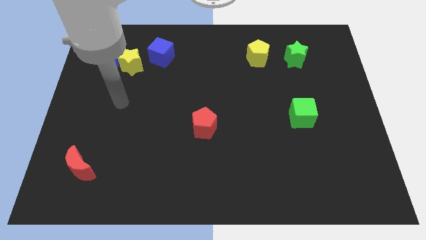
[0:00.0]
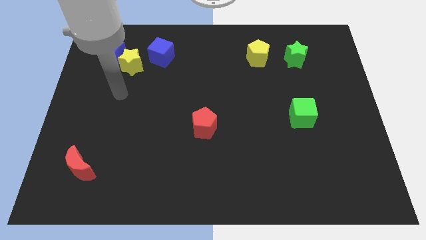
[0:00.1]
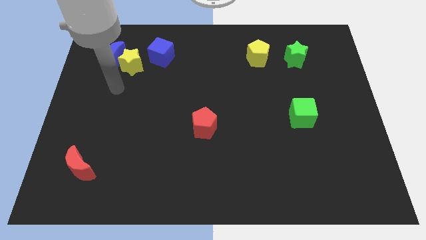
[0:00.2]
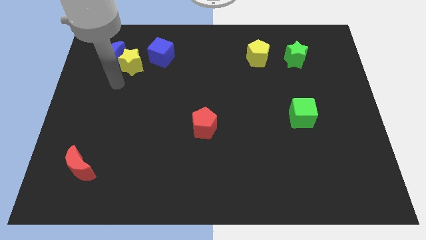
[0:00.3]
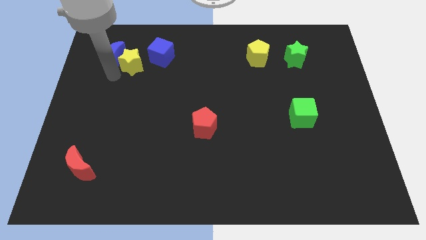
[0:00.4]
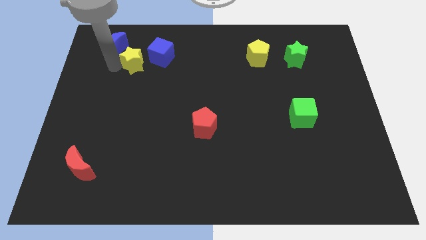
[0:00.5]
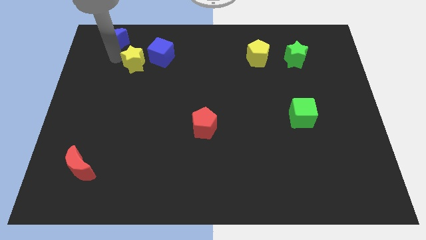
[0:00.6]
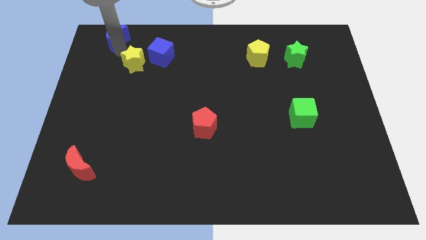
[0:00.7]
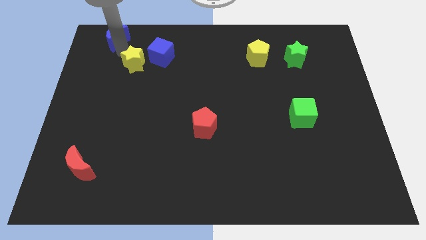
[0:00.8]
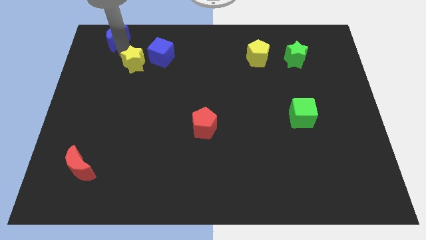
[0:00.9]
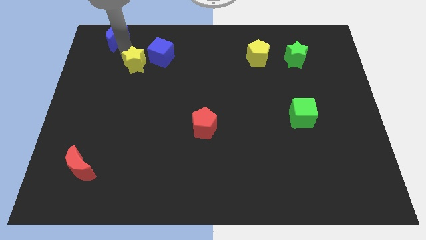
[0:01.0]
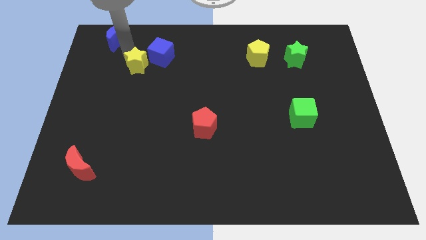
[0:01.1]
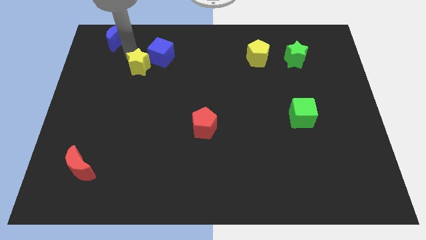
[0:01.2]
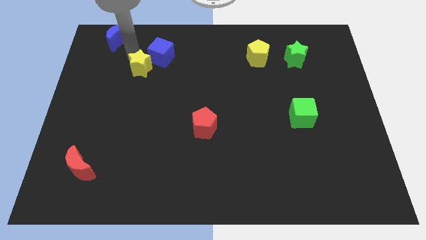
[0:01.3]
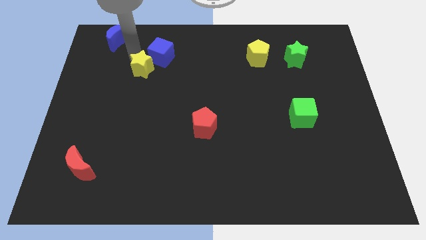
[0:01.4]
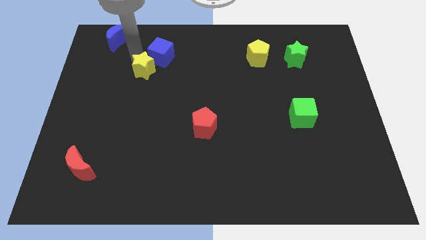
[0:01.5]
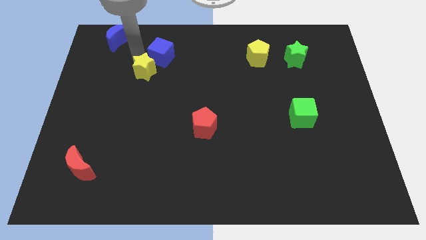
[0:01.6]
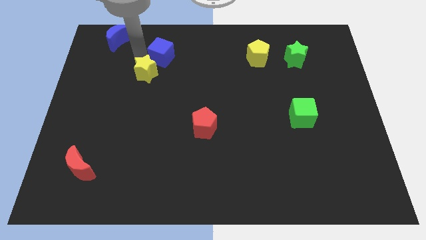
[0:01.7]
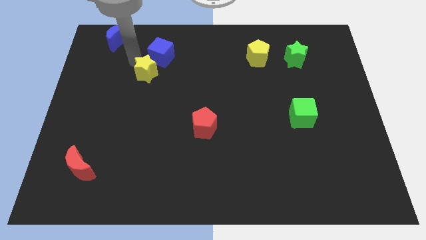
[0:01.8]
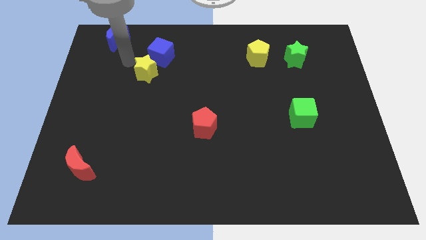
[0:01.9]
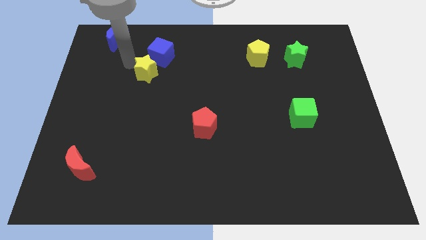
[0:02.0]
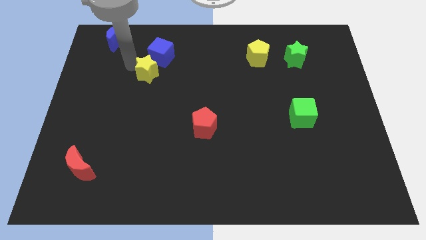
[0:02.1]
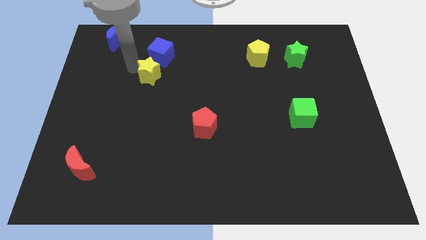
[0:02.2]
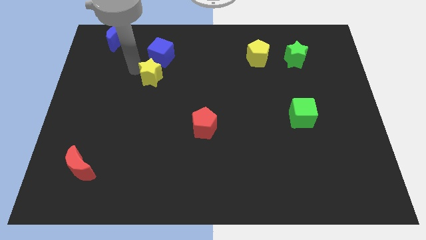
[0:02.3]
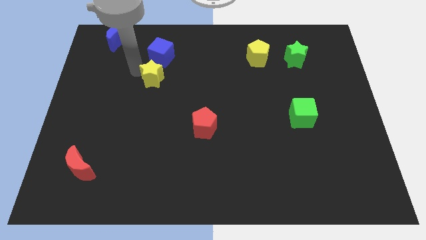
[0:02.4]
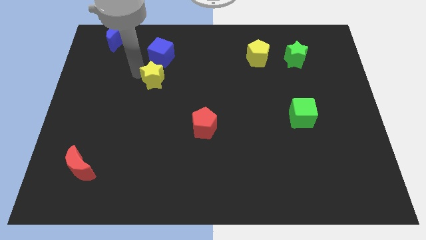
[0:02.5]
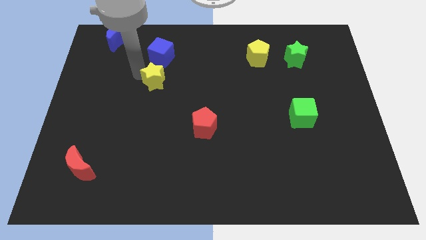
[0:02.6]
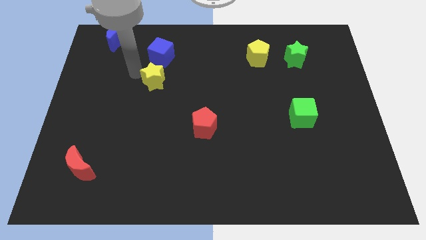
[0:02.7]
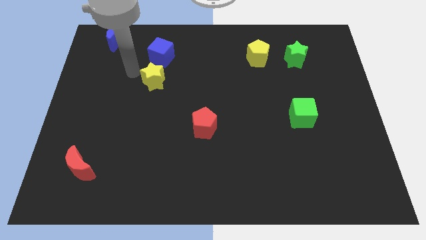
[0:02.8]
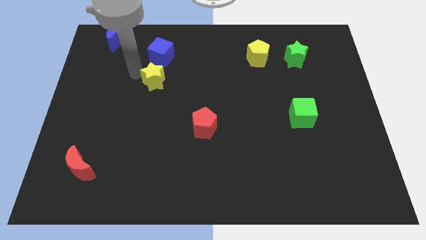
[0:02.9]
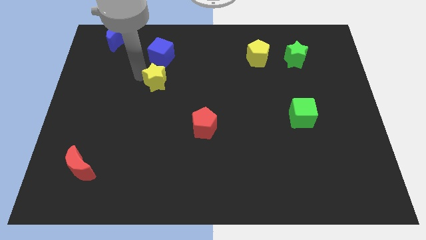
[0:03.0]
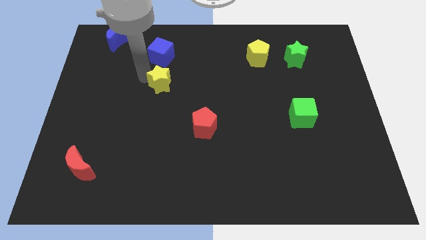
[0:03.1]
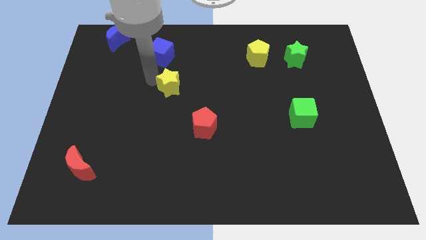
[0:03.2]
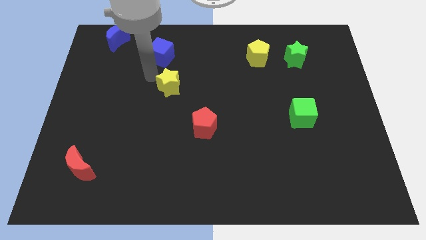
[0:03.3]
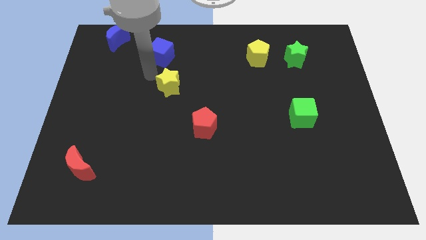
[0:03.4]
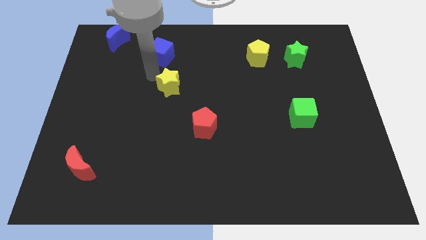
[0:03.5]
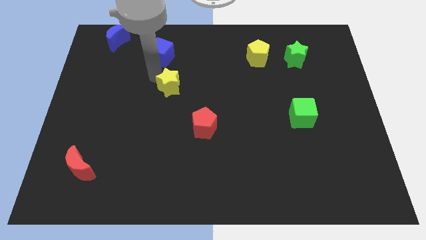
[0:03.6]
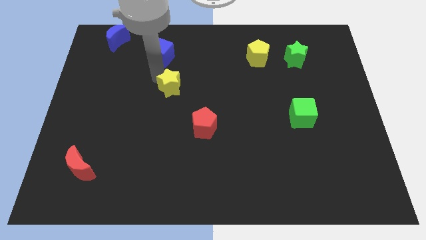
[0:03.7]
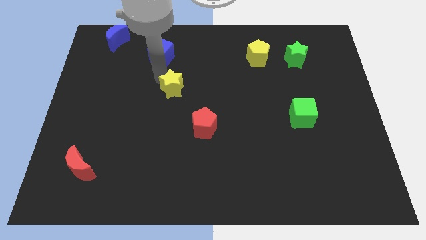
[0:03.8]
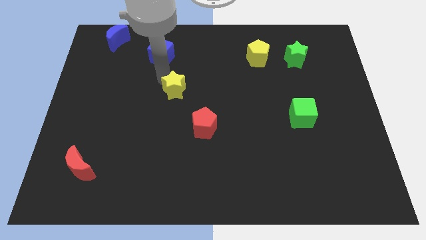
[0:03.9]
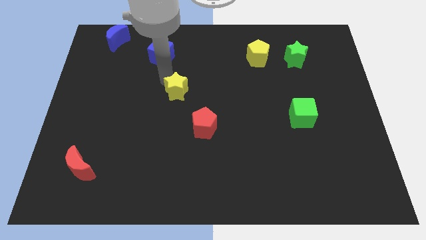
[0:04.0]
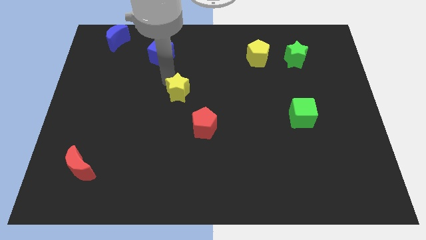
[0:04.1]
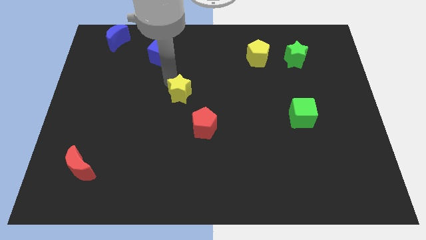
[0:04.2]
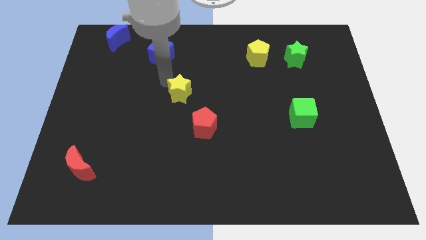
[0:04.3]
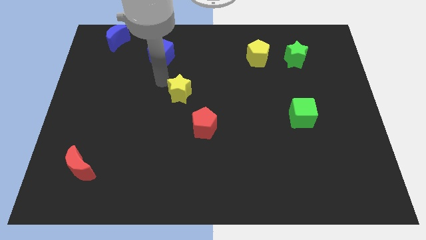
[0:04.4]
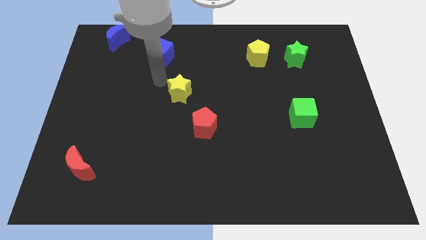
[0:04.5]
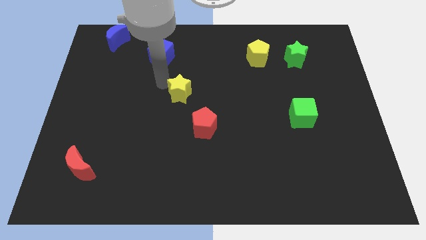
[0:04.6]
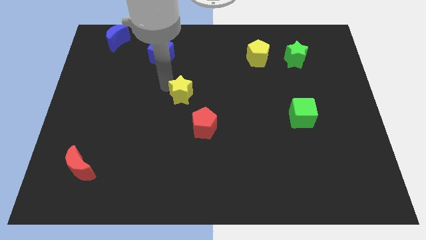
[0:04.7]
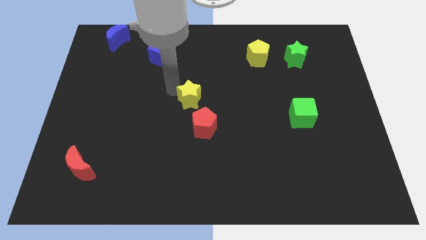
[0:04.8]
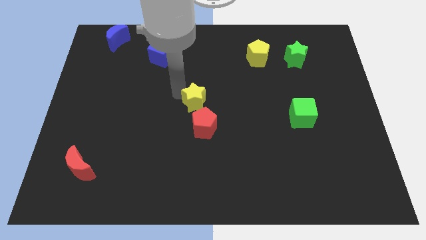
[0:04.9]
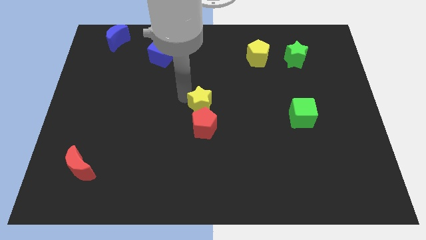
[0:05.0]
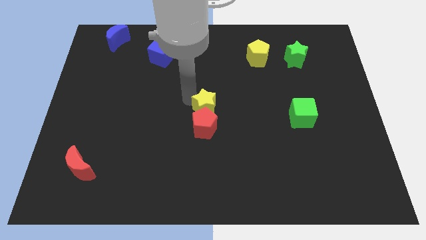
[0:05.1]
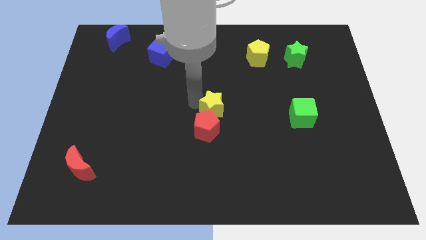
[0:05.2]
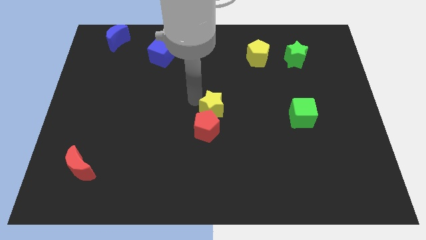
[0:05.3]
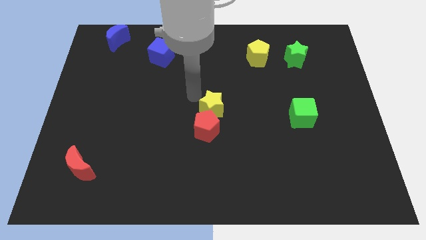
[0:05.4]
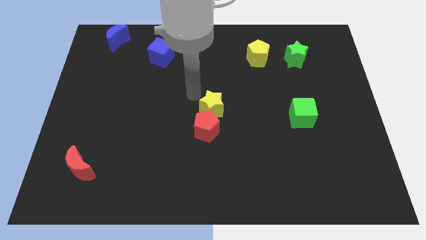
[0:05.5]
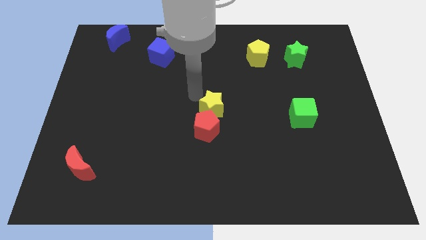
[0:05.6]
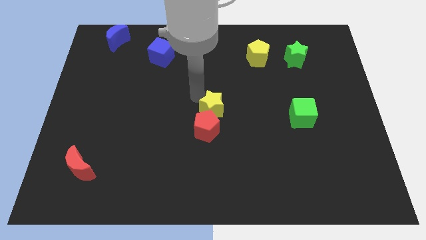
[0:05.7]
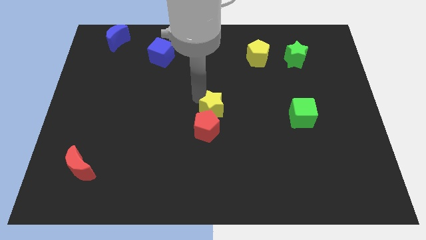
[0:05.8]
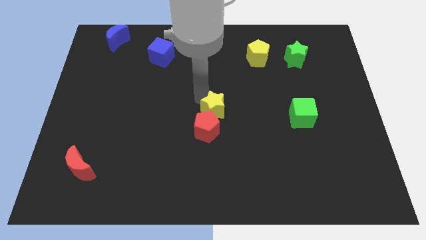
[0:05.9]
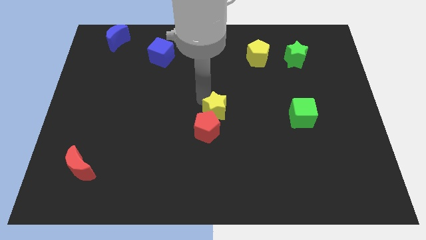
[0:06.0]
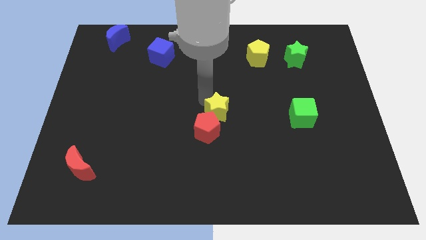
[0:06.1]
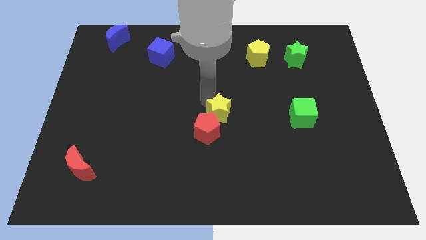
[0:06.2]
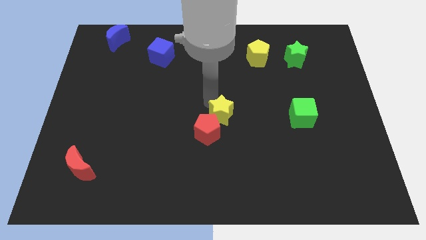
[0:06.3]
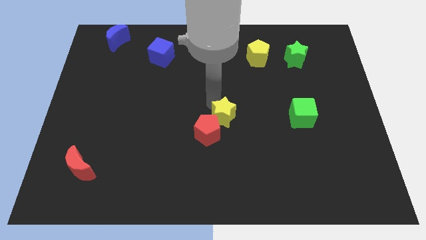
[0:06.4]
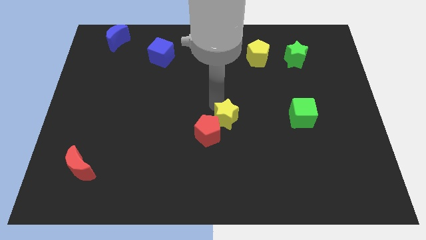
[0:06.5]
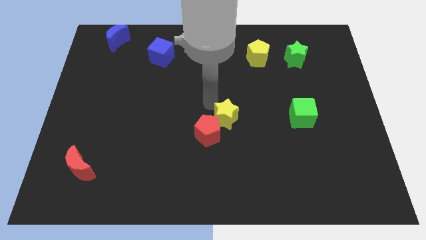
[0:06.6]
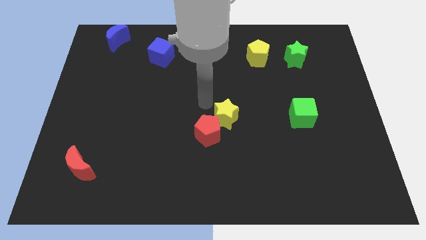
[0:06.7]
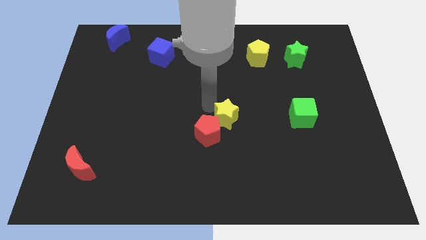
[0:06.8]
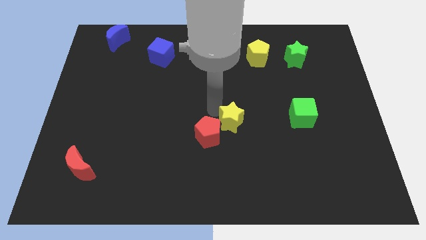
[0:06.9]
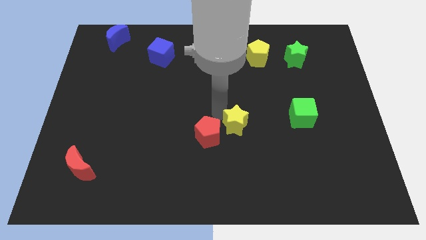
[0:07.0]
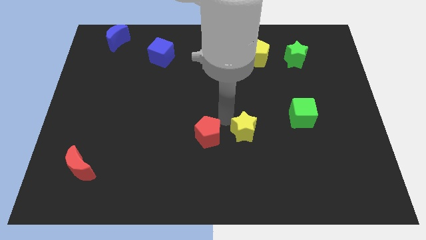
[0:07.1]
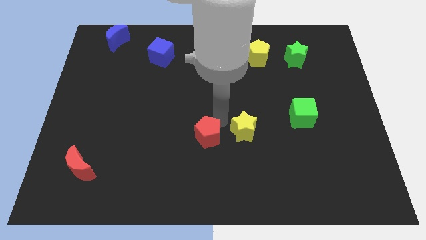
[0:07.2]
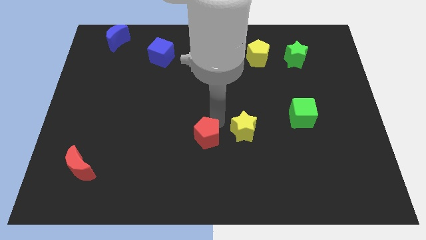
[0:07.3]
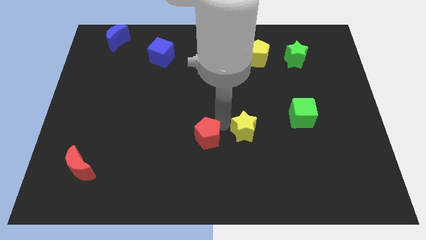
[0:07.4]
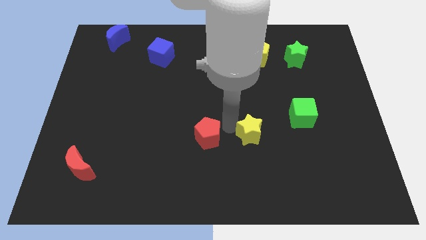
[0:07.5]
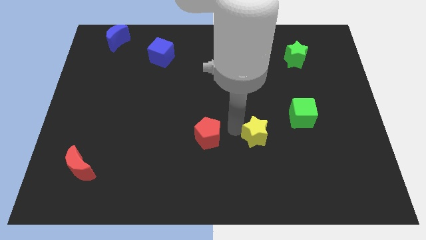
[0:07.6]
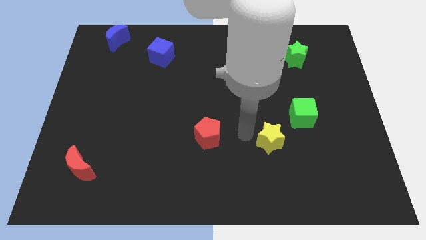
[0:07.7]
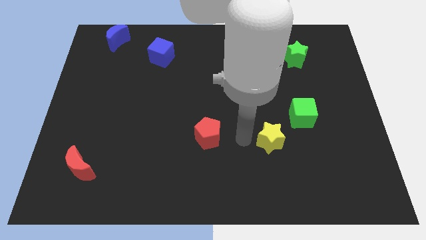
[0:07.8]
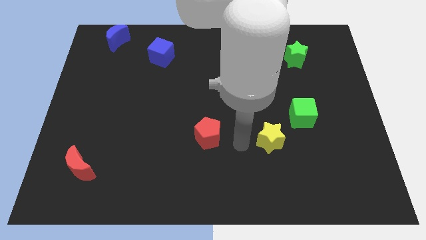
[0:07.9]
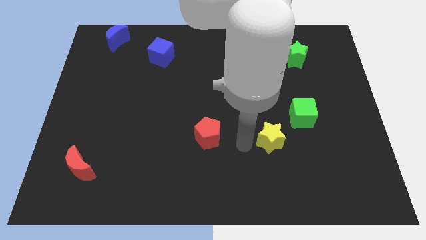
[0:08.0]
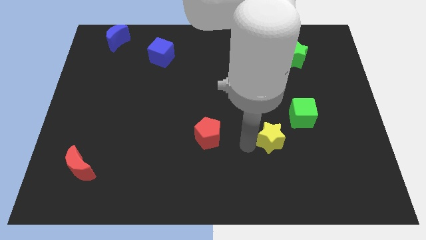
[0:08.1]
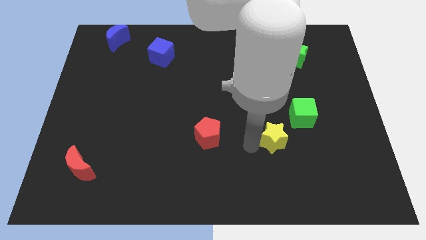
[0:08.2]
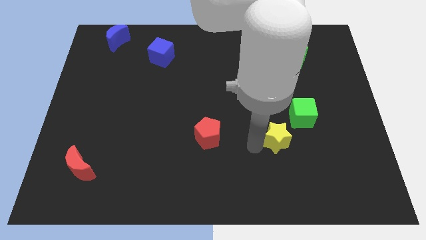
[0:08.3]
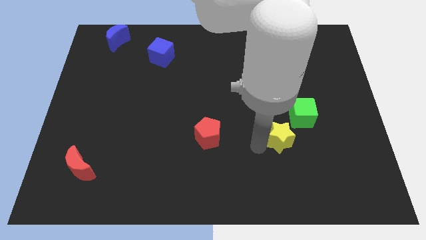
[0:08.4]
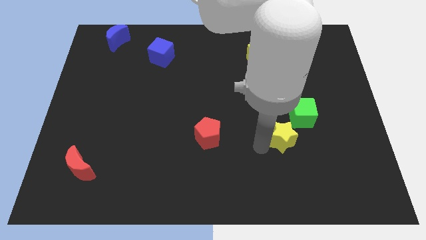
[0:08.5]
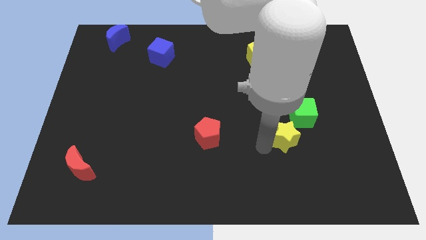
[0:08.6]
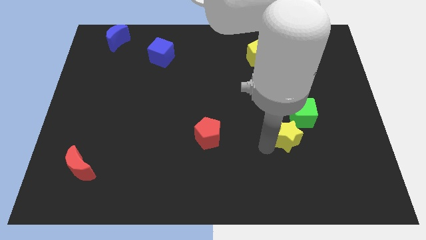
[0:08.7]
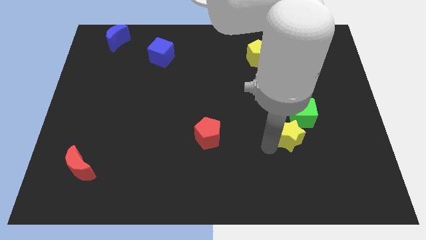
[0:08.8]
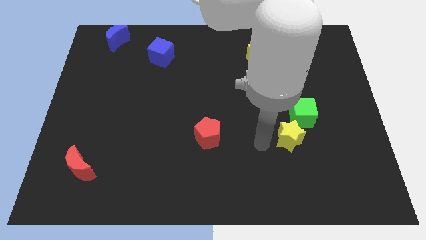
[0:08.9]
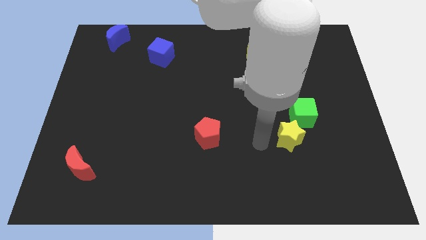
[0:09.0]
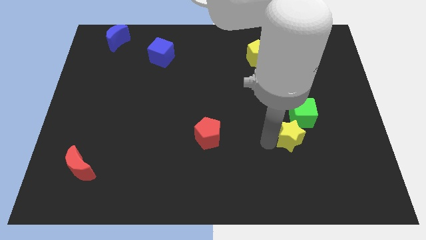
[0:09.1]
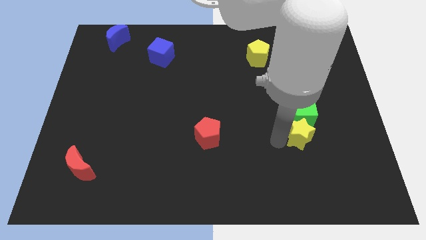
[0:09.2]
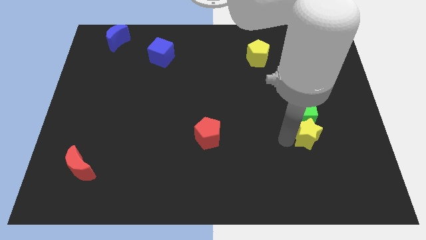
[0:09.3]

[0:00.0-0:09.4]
put the yellow star diagonally down and to the right of the green cube
